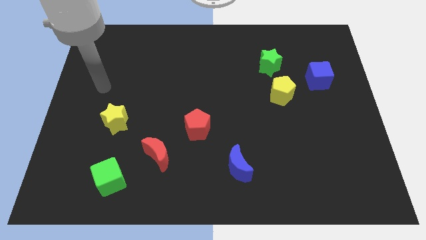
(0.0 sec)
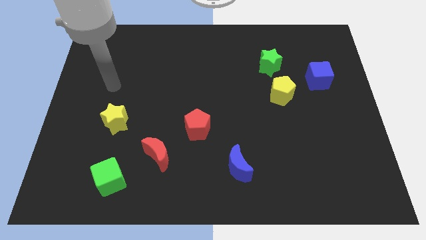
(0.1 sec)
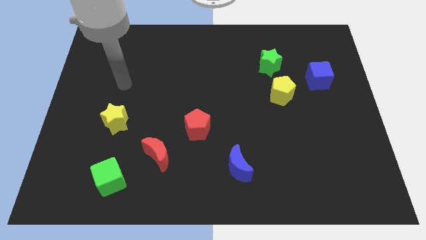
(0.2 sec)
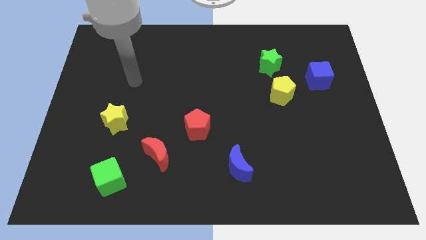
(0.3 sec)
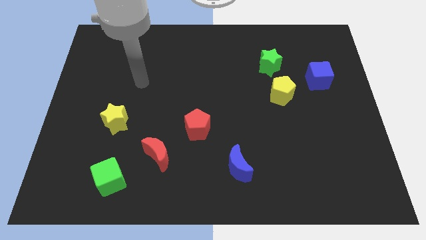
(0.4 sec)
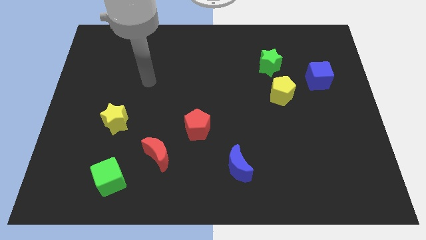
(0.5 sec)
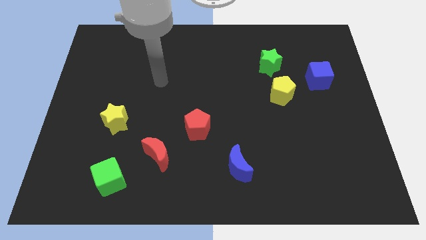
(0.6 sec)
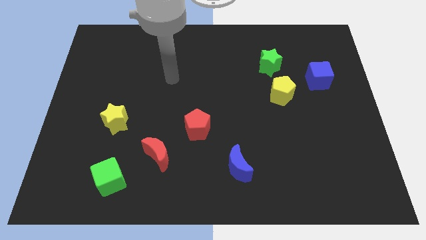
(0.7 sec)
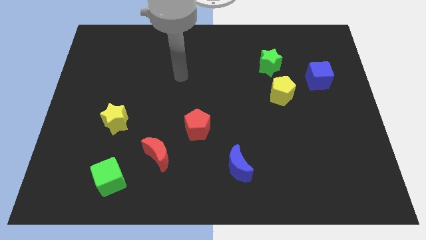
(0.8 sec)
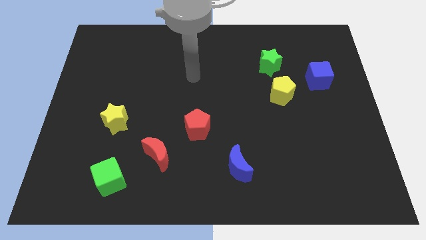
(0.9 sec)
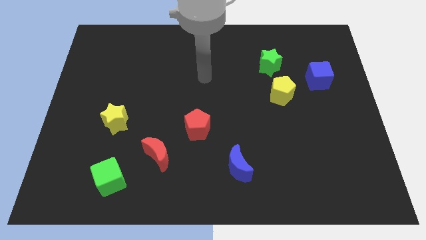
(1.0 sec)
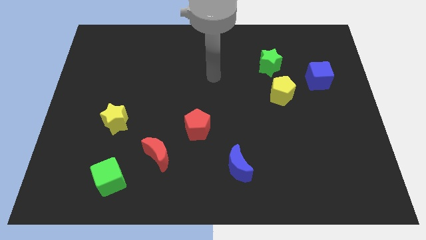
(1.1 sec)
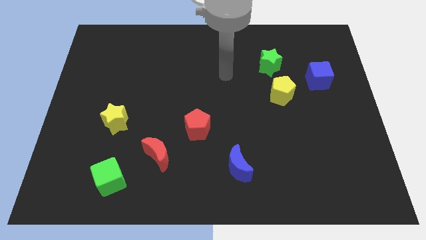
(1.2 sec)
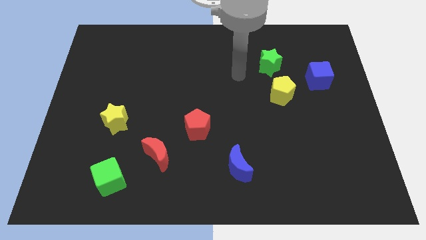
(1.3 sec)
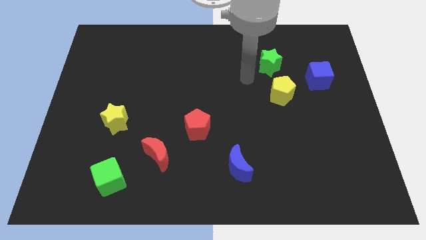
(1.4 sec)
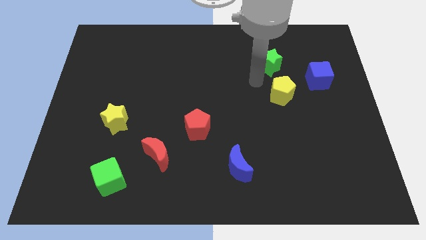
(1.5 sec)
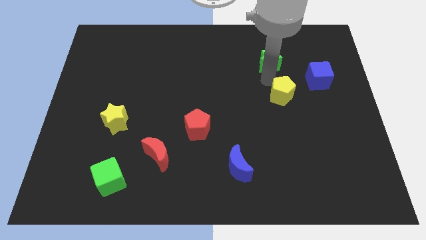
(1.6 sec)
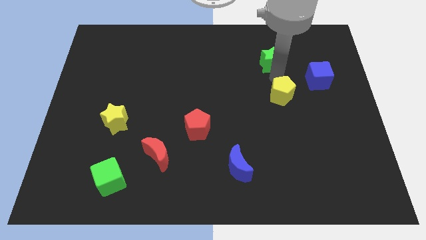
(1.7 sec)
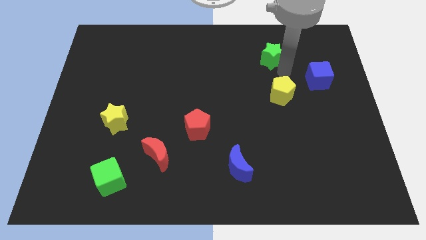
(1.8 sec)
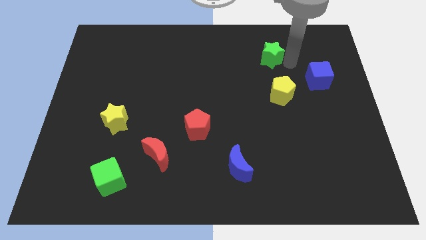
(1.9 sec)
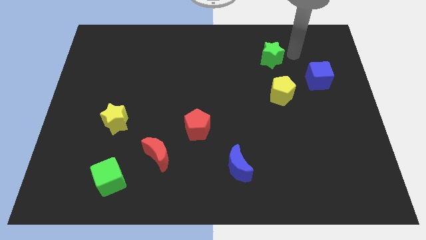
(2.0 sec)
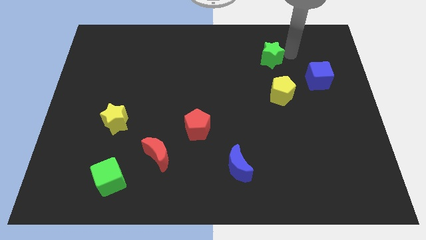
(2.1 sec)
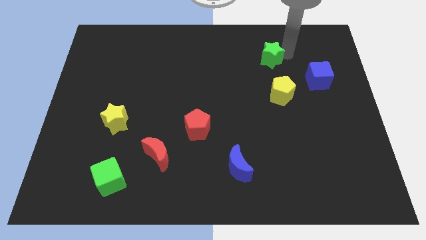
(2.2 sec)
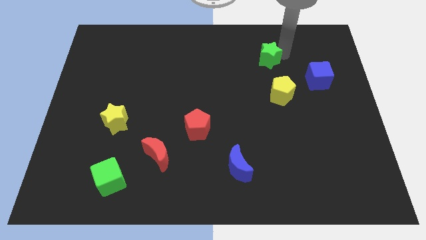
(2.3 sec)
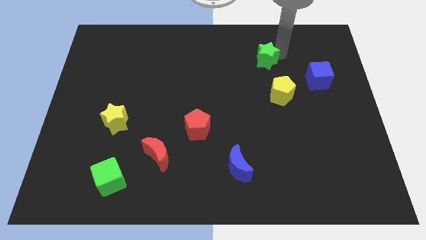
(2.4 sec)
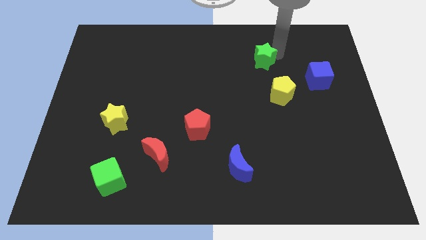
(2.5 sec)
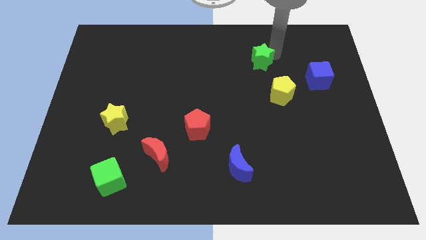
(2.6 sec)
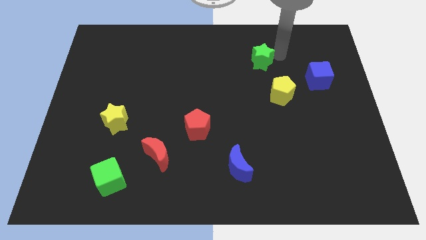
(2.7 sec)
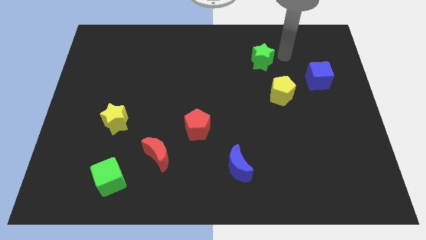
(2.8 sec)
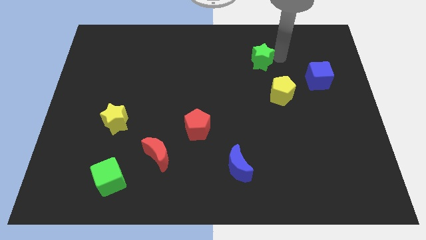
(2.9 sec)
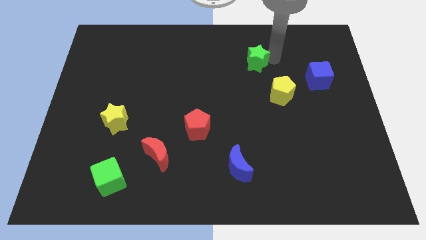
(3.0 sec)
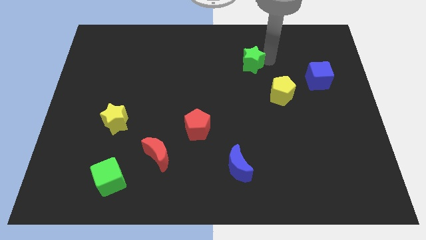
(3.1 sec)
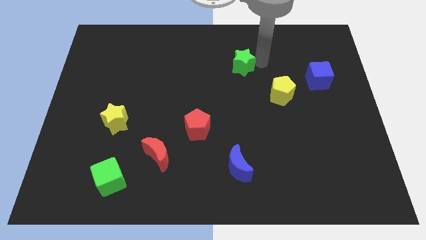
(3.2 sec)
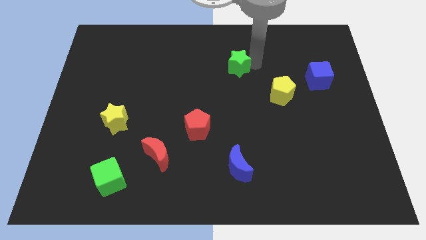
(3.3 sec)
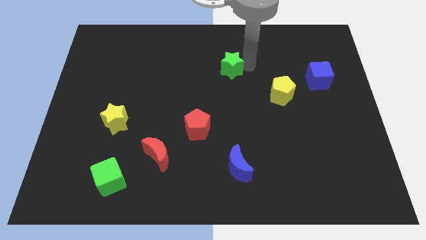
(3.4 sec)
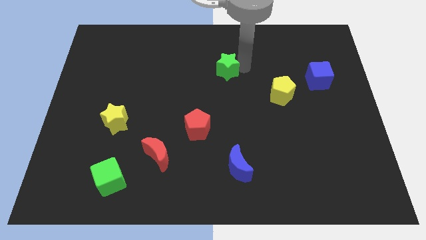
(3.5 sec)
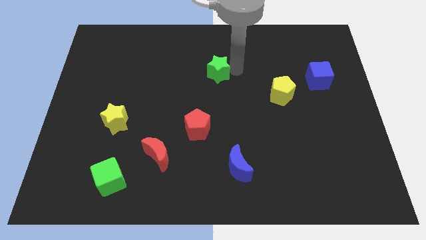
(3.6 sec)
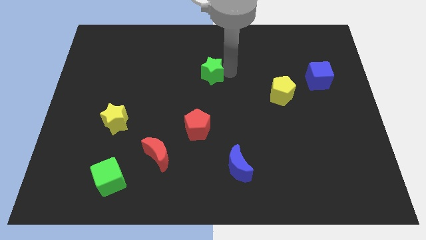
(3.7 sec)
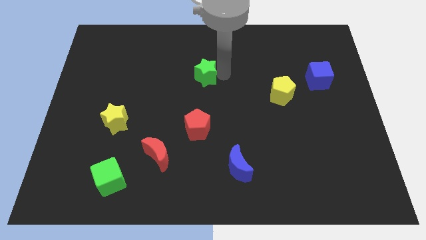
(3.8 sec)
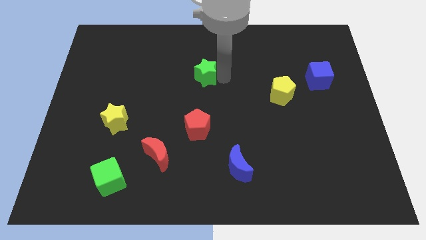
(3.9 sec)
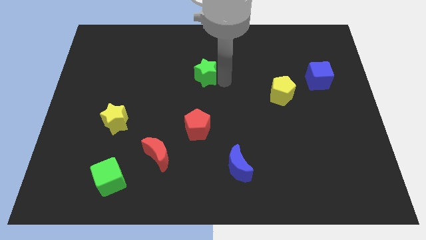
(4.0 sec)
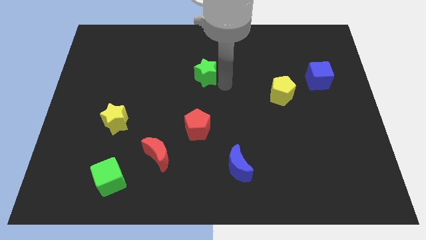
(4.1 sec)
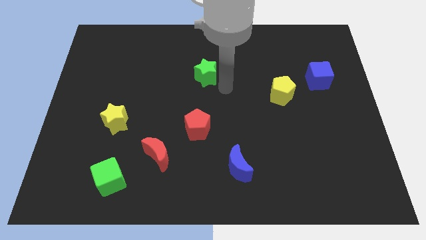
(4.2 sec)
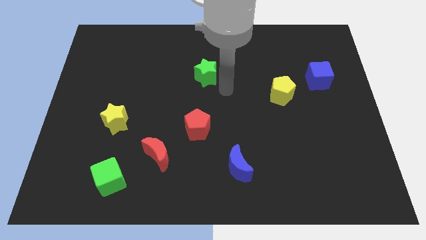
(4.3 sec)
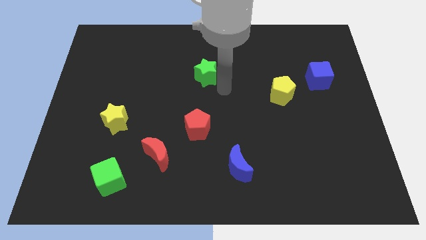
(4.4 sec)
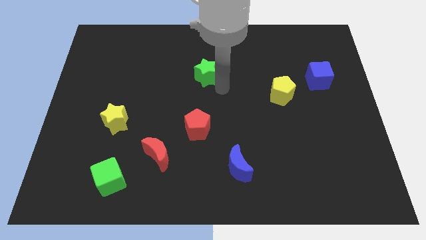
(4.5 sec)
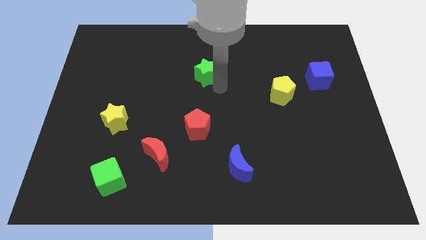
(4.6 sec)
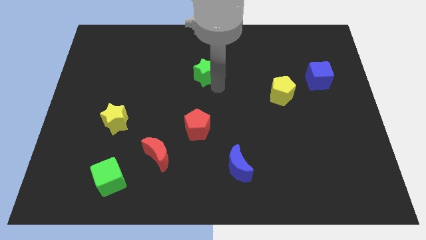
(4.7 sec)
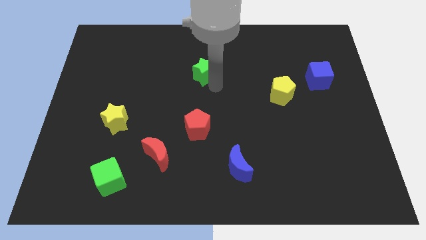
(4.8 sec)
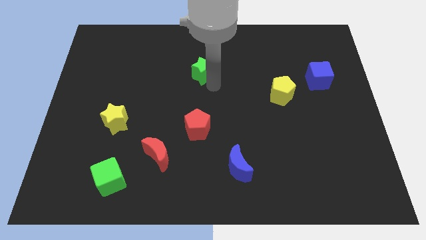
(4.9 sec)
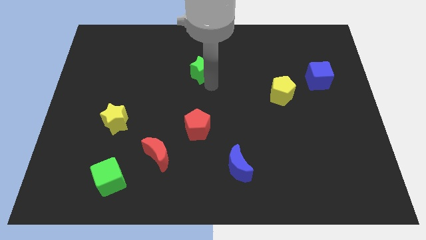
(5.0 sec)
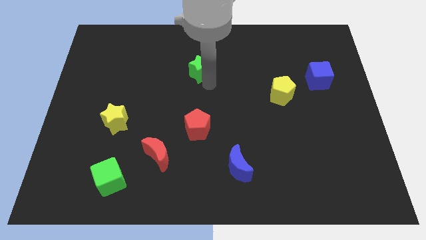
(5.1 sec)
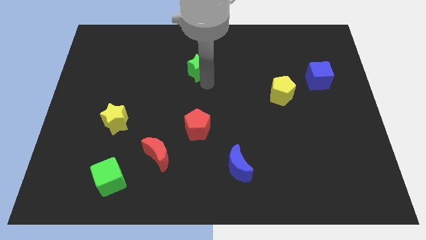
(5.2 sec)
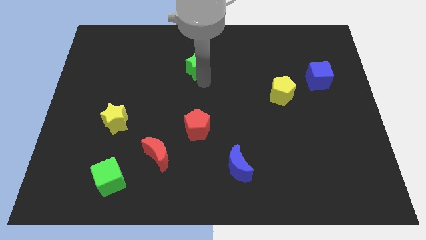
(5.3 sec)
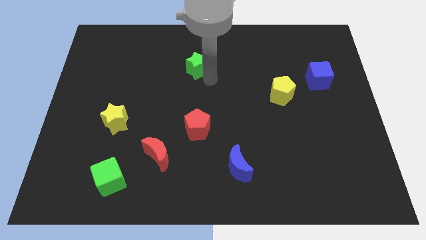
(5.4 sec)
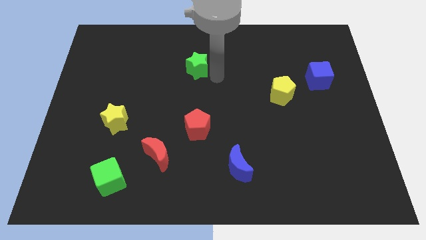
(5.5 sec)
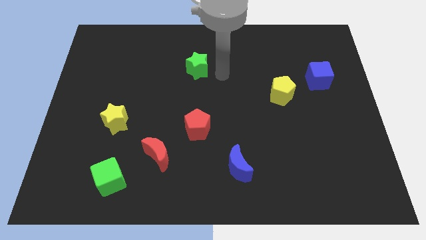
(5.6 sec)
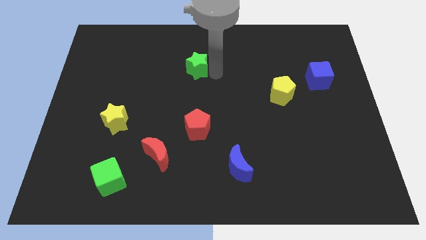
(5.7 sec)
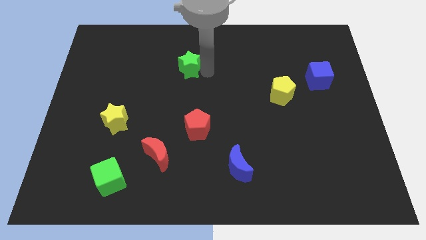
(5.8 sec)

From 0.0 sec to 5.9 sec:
move the green star left

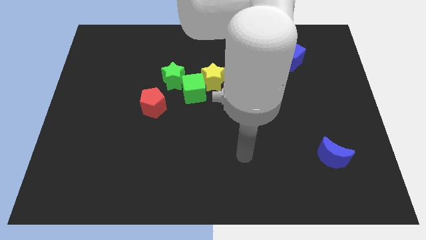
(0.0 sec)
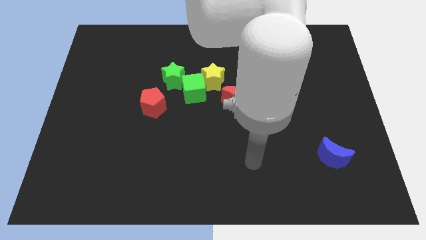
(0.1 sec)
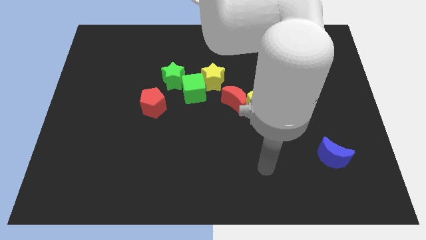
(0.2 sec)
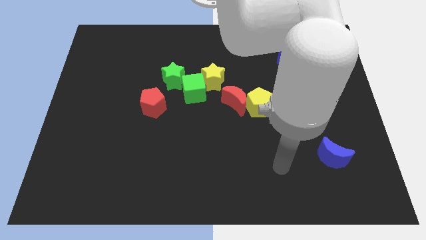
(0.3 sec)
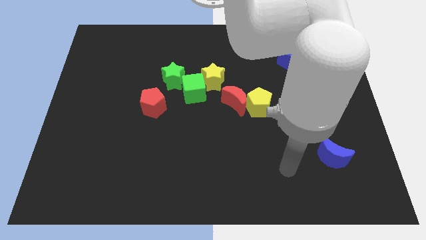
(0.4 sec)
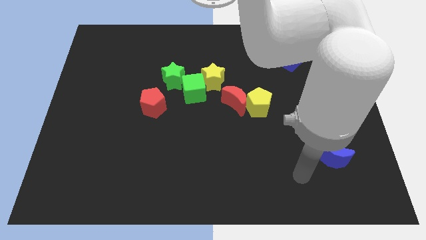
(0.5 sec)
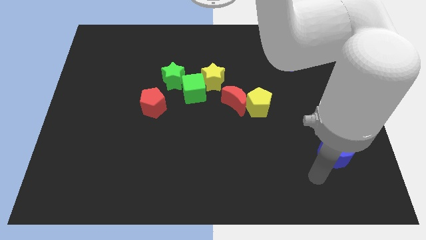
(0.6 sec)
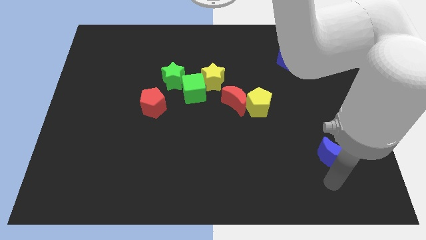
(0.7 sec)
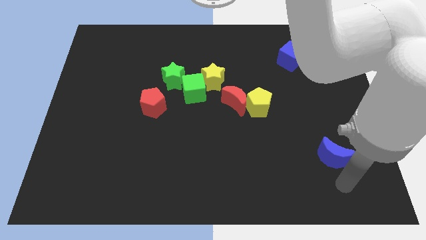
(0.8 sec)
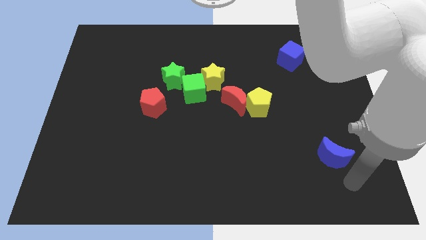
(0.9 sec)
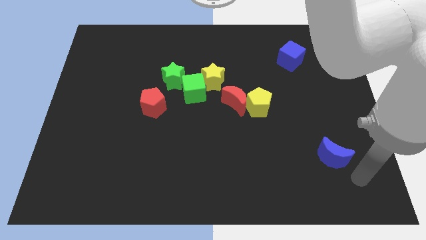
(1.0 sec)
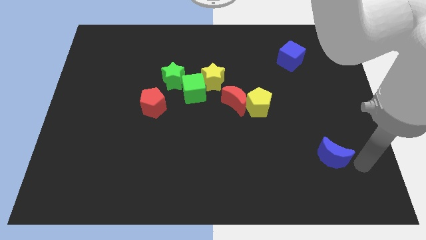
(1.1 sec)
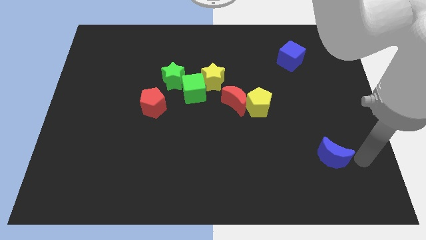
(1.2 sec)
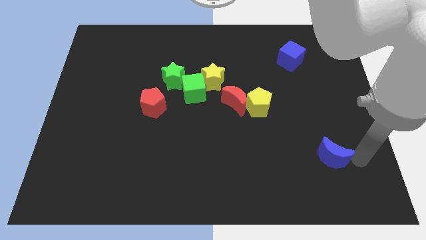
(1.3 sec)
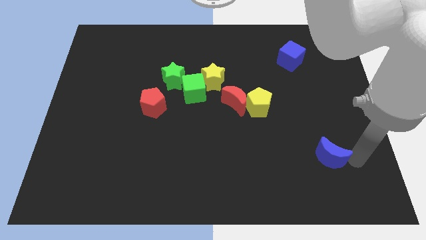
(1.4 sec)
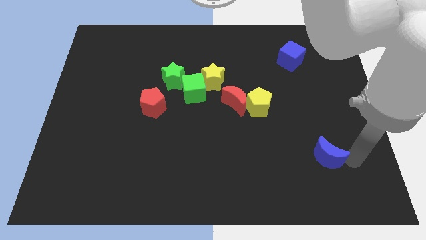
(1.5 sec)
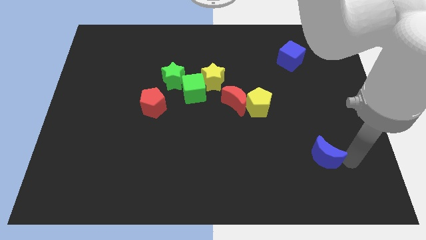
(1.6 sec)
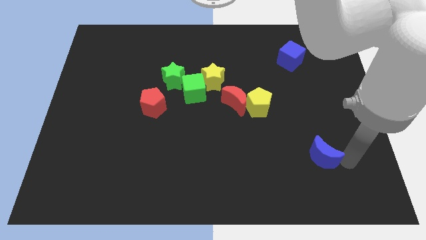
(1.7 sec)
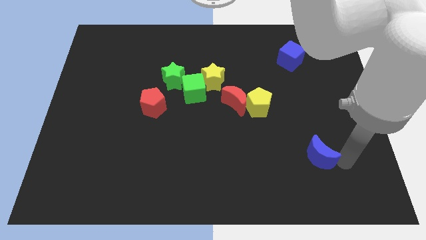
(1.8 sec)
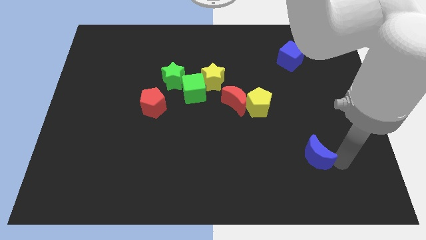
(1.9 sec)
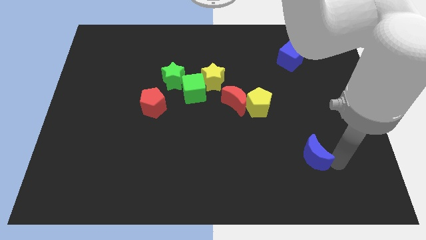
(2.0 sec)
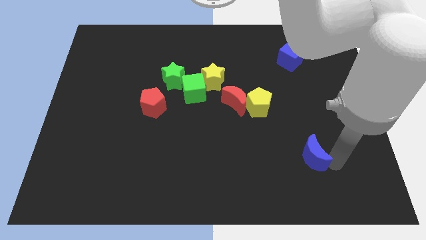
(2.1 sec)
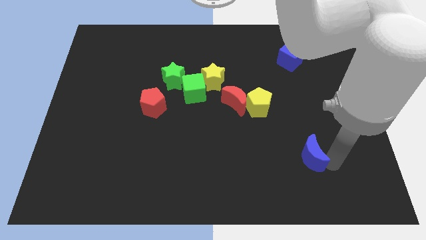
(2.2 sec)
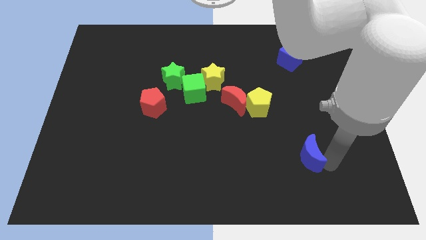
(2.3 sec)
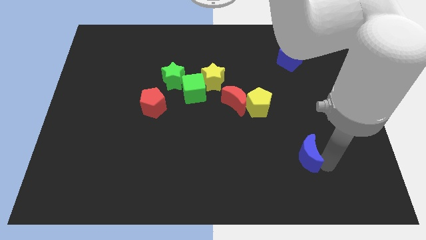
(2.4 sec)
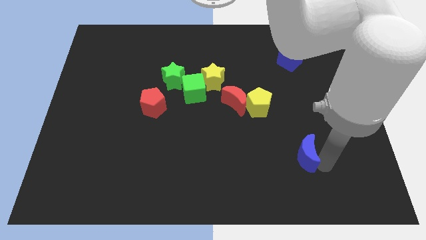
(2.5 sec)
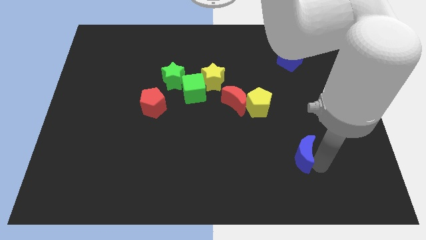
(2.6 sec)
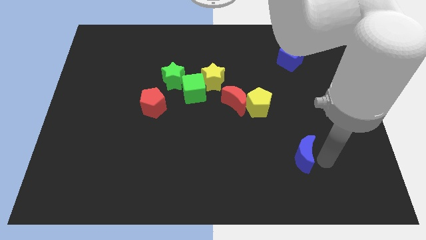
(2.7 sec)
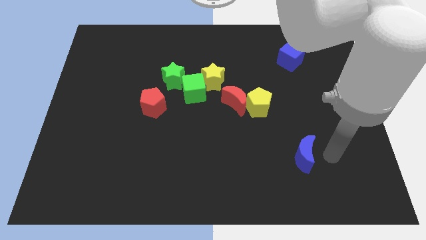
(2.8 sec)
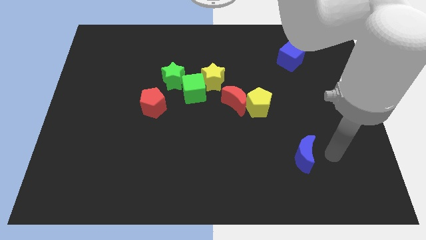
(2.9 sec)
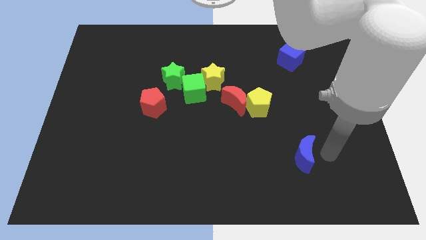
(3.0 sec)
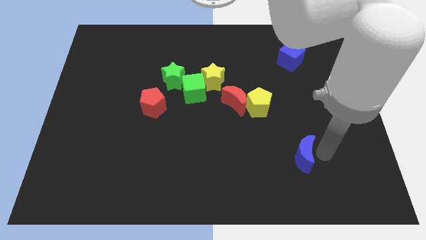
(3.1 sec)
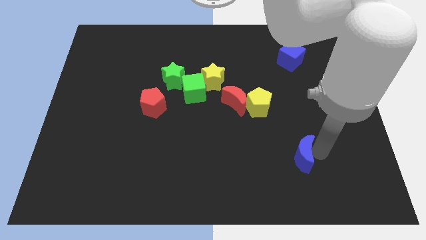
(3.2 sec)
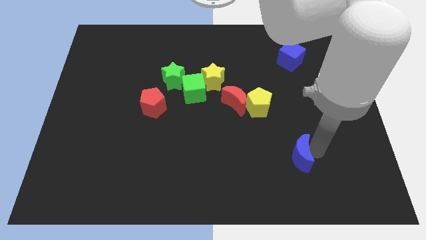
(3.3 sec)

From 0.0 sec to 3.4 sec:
slightly move the blue moon to the left
